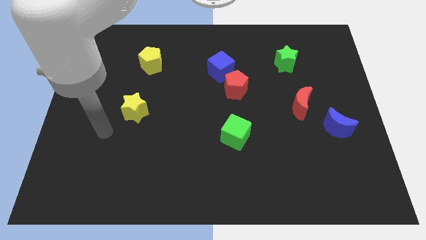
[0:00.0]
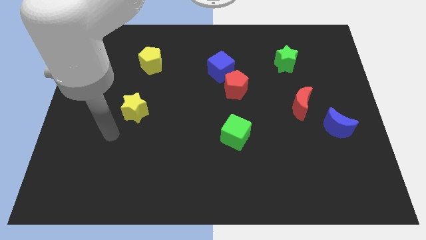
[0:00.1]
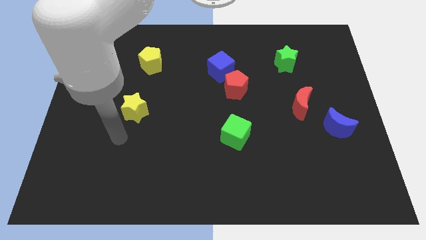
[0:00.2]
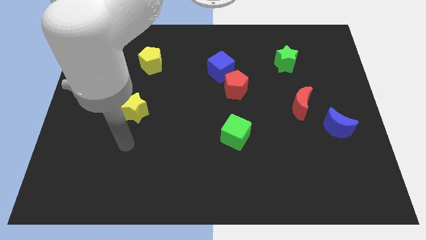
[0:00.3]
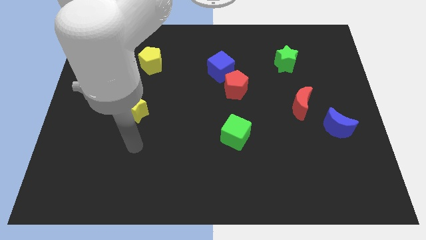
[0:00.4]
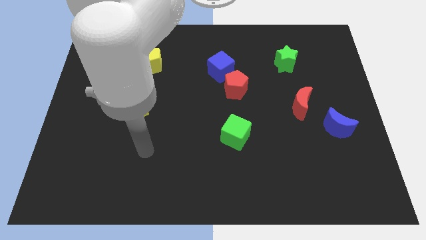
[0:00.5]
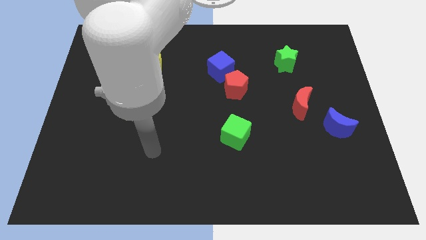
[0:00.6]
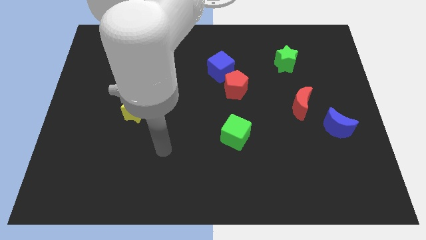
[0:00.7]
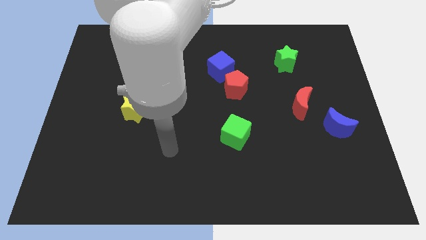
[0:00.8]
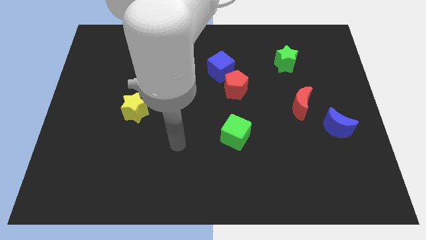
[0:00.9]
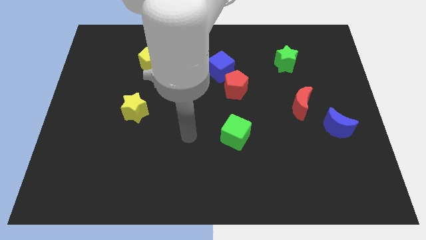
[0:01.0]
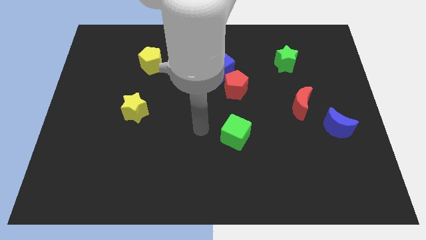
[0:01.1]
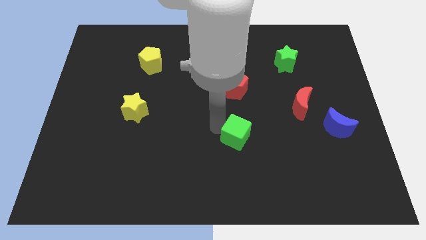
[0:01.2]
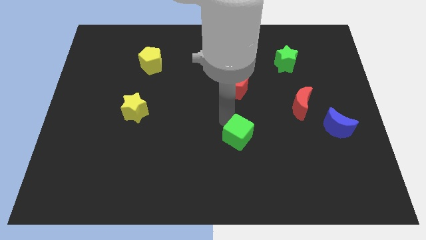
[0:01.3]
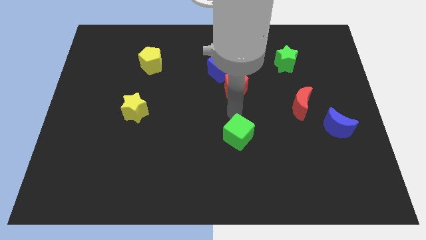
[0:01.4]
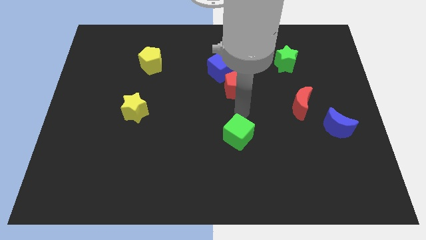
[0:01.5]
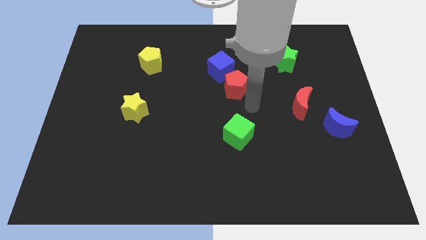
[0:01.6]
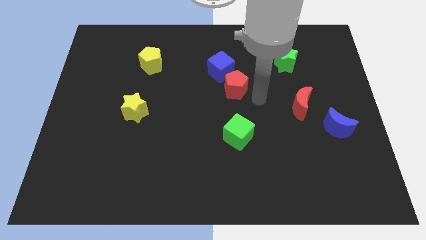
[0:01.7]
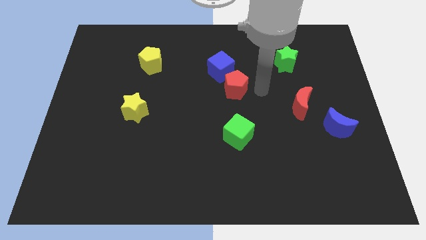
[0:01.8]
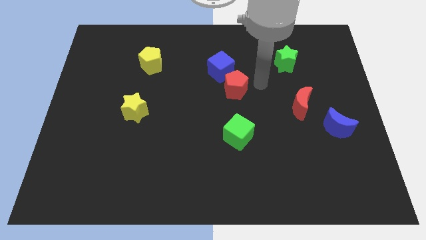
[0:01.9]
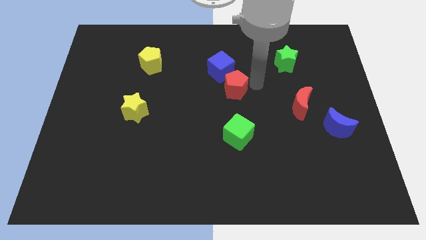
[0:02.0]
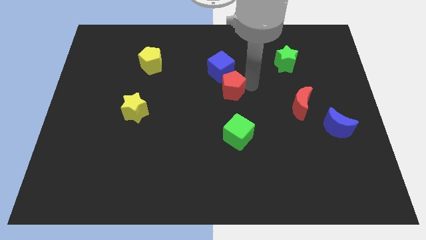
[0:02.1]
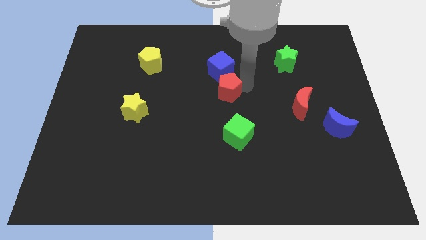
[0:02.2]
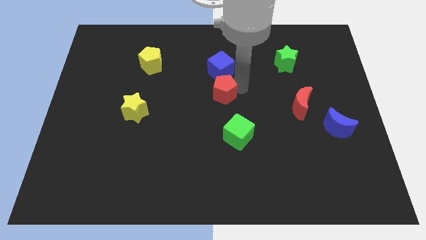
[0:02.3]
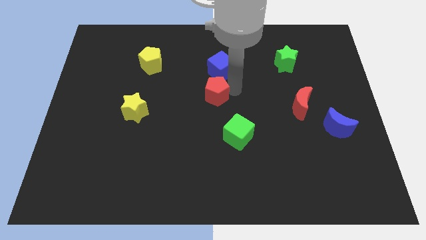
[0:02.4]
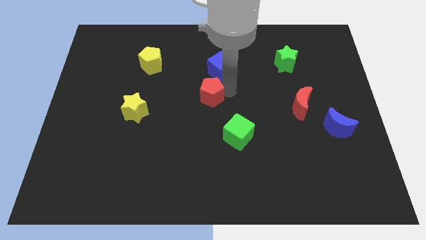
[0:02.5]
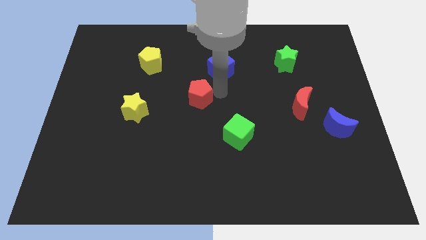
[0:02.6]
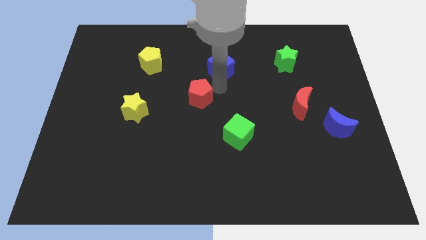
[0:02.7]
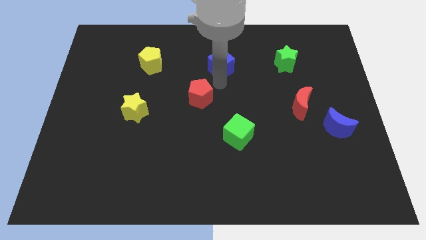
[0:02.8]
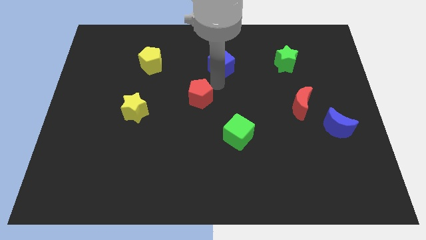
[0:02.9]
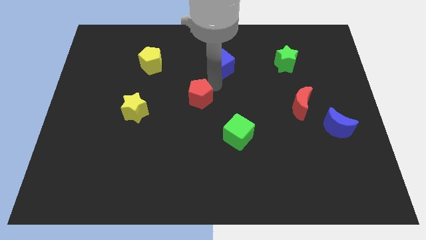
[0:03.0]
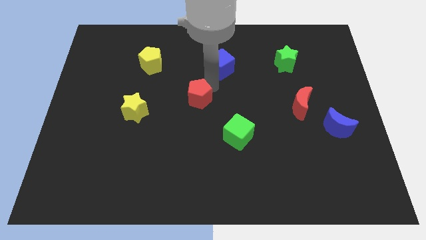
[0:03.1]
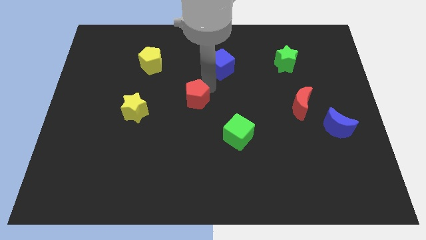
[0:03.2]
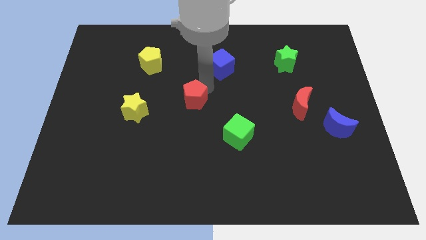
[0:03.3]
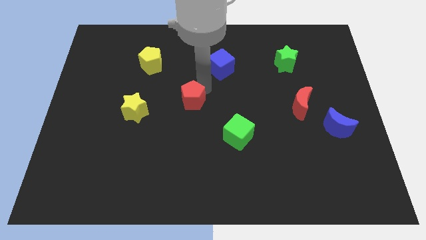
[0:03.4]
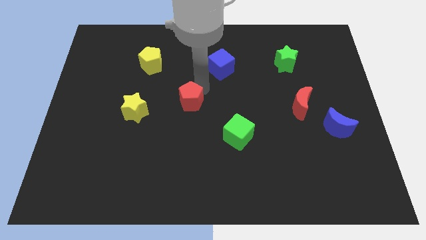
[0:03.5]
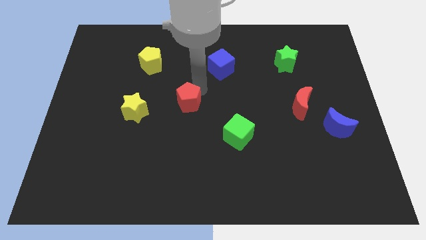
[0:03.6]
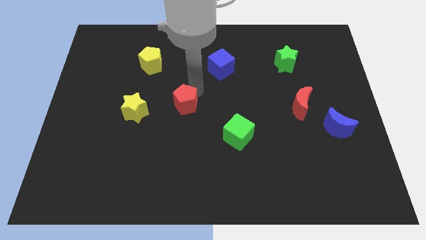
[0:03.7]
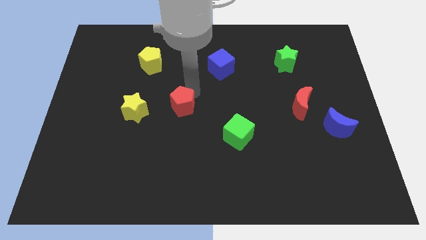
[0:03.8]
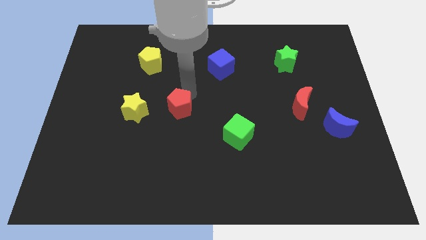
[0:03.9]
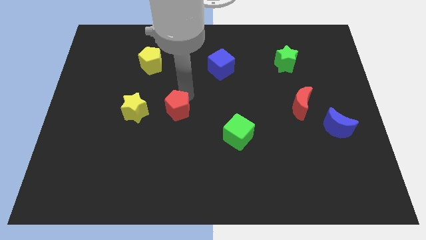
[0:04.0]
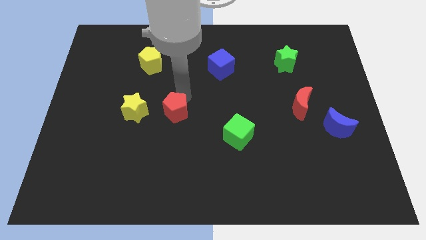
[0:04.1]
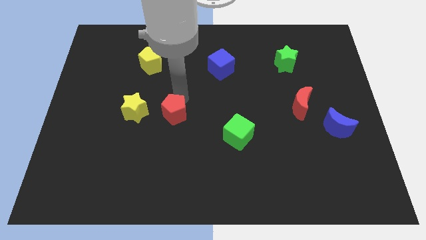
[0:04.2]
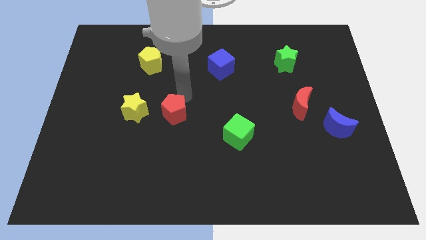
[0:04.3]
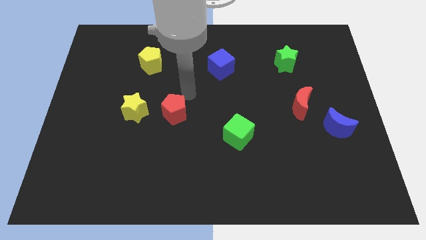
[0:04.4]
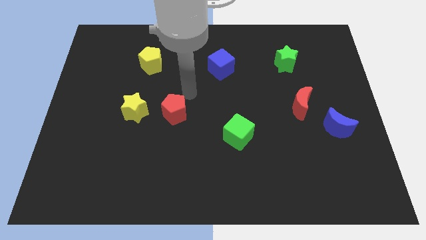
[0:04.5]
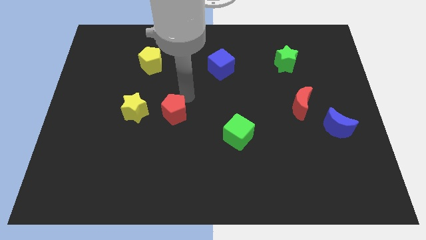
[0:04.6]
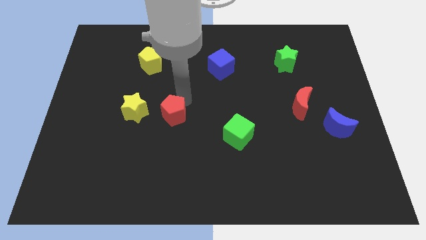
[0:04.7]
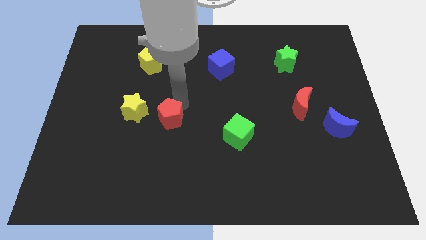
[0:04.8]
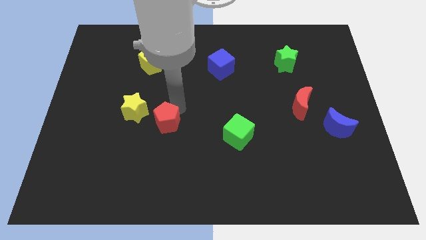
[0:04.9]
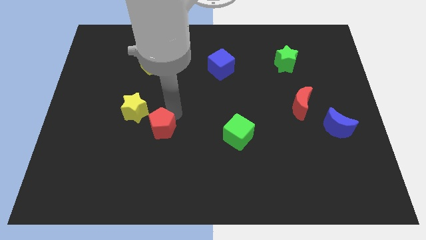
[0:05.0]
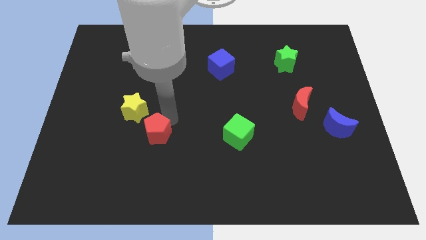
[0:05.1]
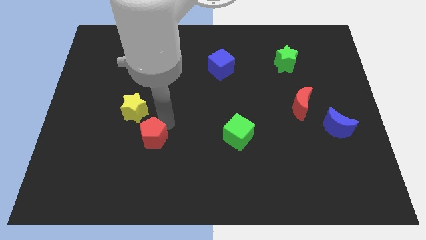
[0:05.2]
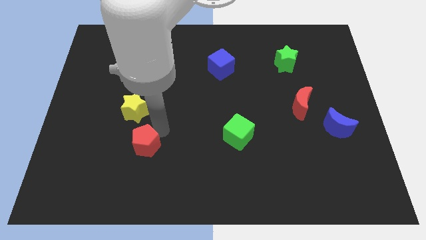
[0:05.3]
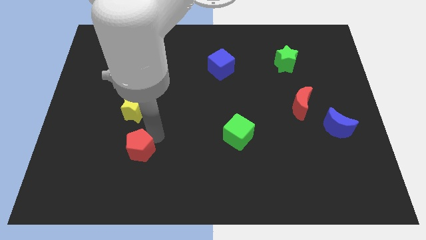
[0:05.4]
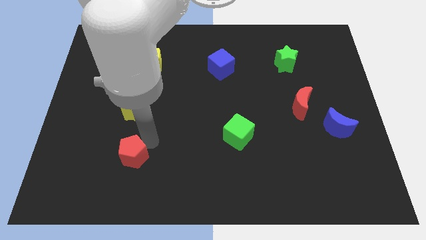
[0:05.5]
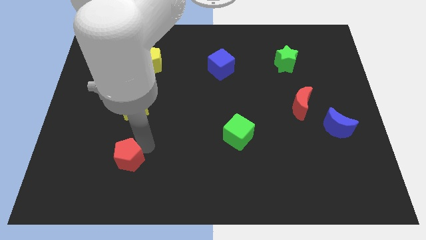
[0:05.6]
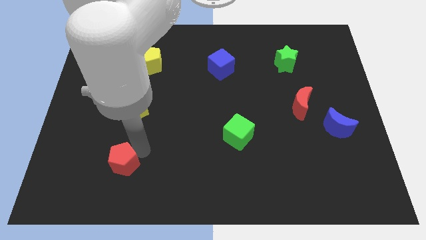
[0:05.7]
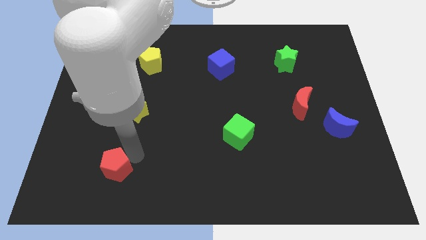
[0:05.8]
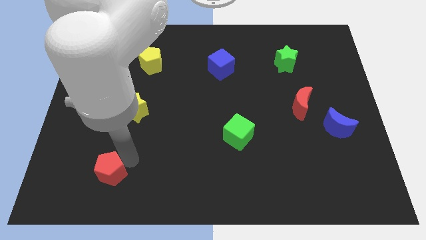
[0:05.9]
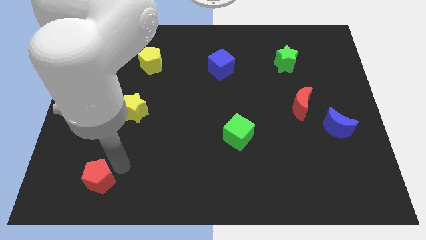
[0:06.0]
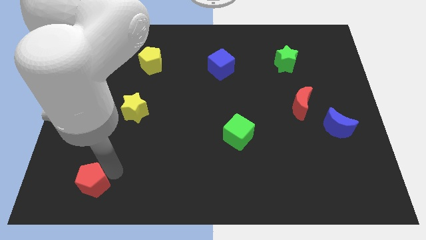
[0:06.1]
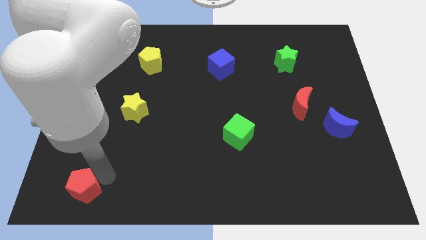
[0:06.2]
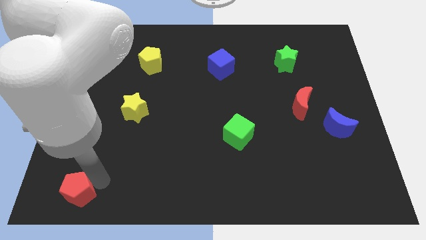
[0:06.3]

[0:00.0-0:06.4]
put the red pentagon to the bottom left of the board

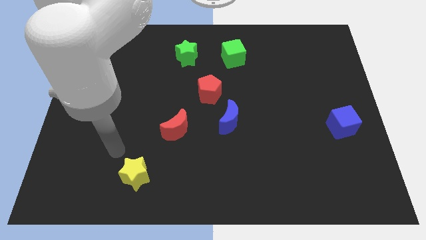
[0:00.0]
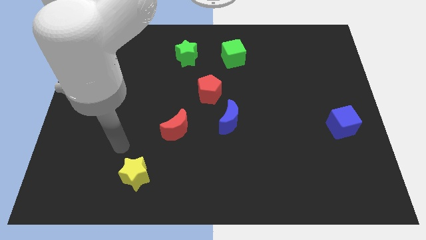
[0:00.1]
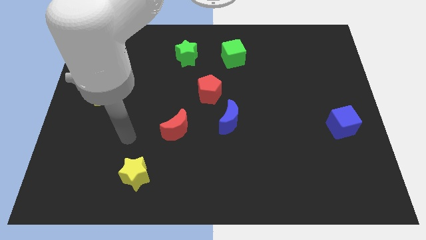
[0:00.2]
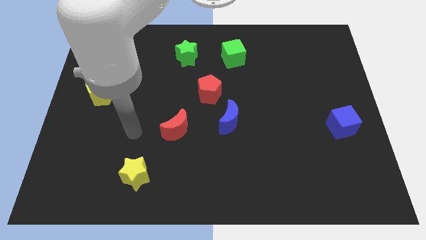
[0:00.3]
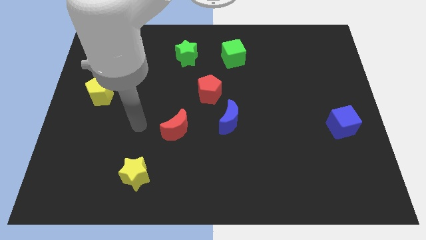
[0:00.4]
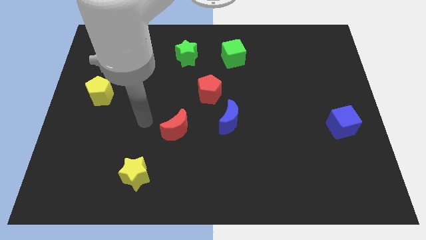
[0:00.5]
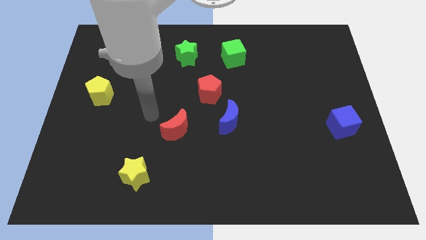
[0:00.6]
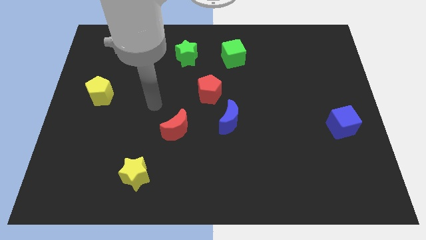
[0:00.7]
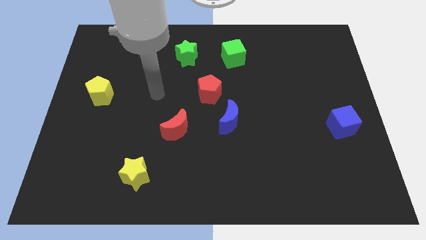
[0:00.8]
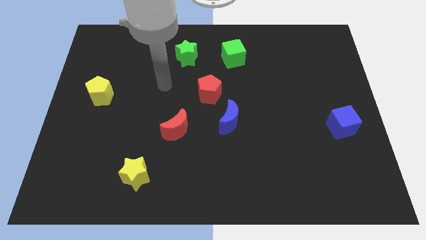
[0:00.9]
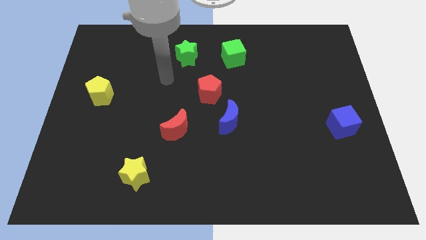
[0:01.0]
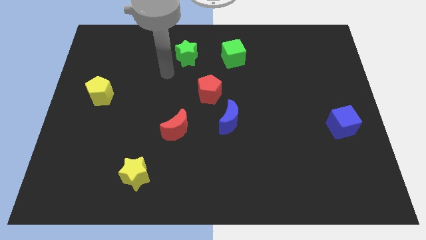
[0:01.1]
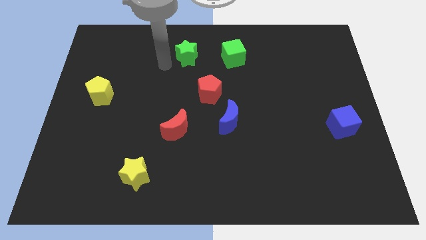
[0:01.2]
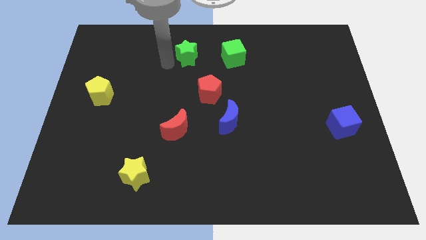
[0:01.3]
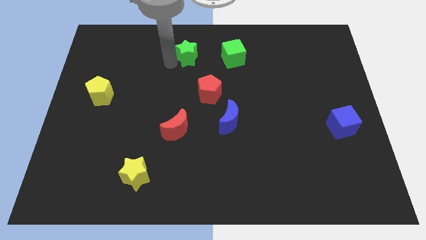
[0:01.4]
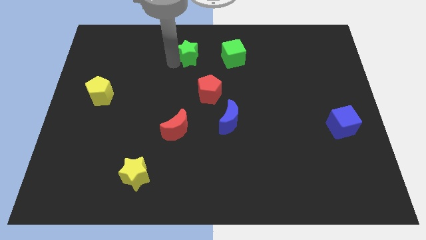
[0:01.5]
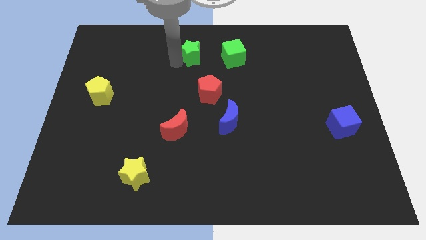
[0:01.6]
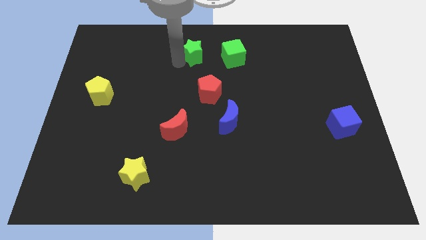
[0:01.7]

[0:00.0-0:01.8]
move the green star to the top side
